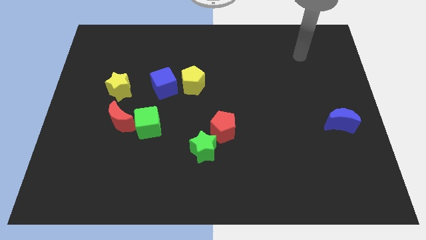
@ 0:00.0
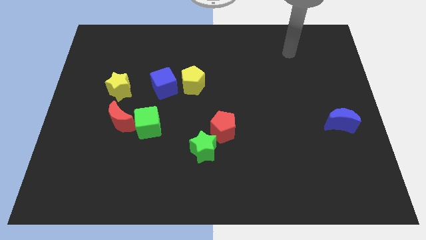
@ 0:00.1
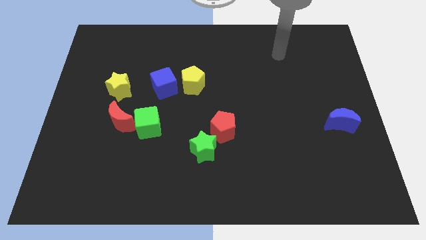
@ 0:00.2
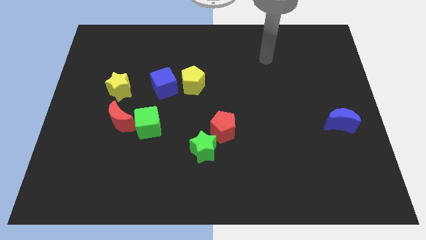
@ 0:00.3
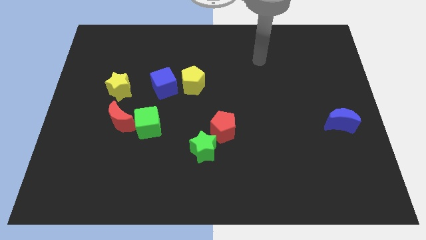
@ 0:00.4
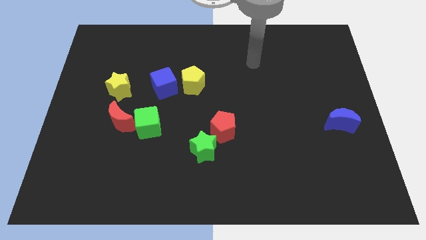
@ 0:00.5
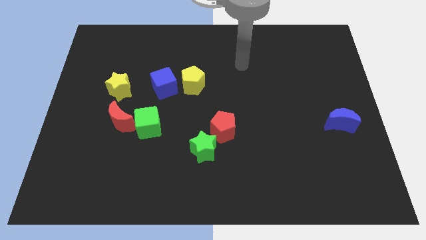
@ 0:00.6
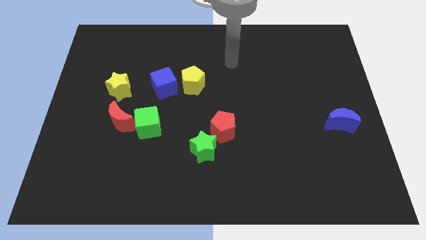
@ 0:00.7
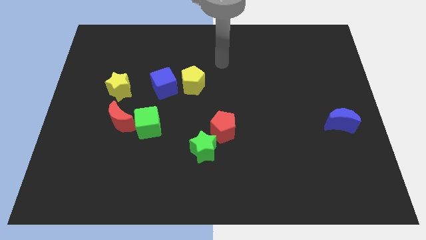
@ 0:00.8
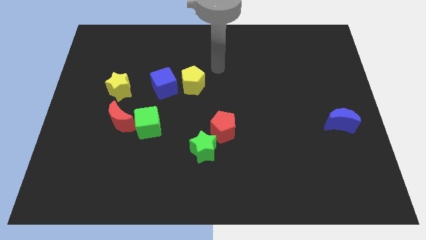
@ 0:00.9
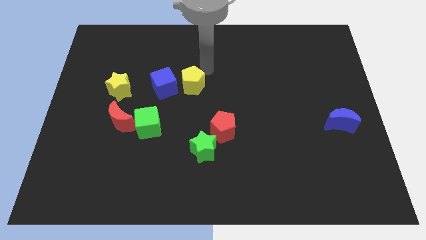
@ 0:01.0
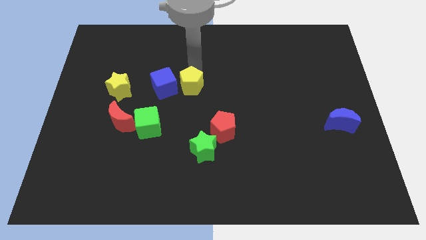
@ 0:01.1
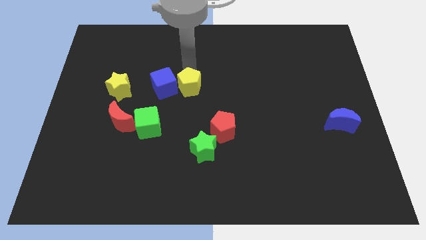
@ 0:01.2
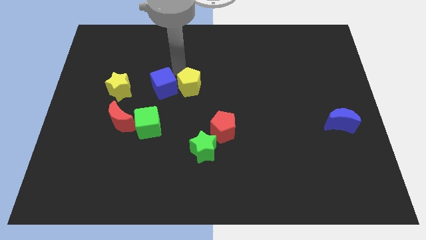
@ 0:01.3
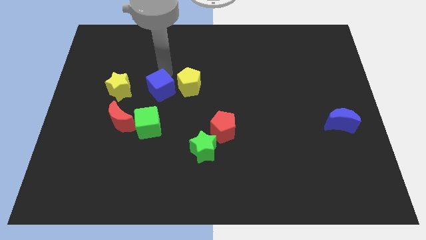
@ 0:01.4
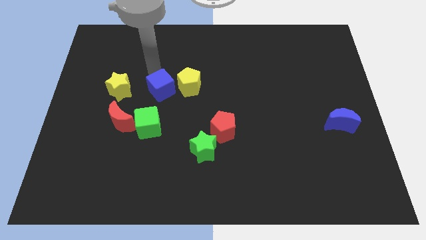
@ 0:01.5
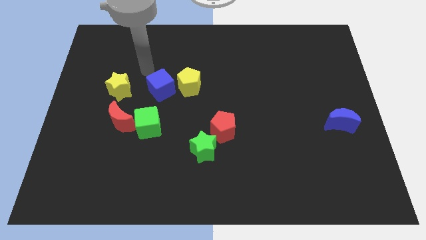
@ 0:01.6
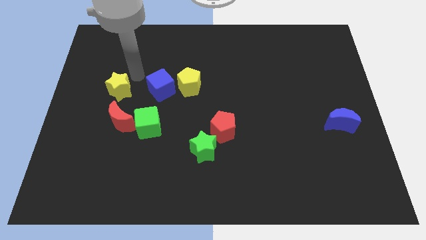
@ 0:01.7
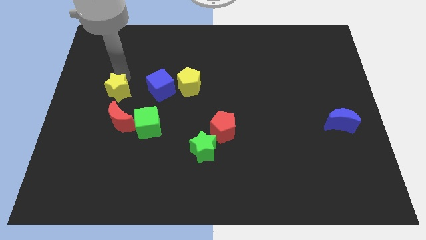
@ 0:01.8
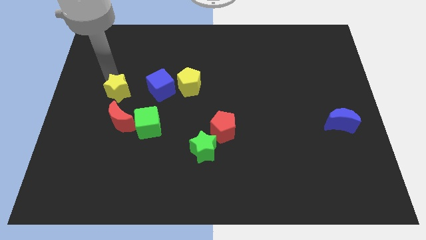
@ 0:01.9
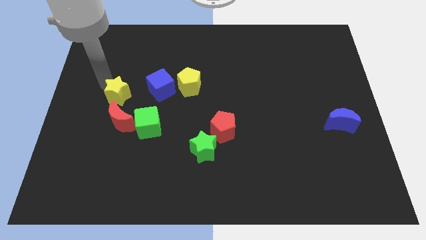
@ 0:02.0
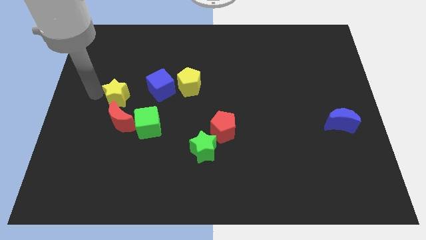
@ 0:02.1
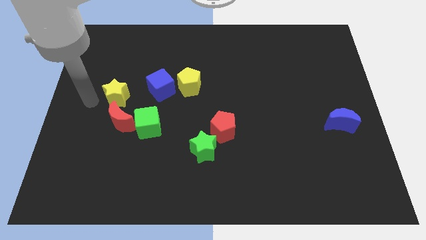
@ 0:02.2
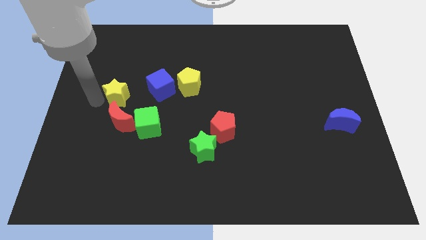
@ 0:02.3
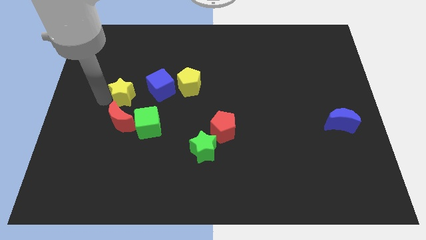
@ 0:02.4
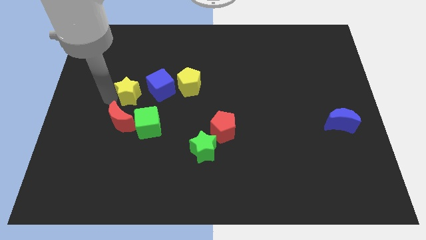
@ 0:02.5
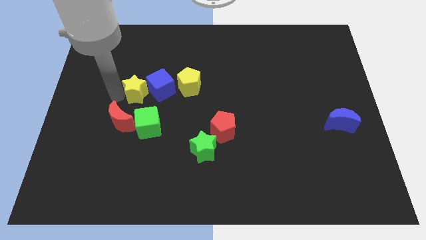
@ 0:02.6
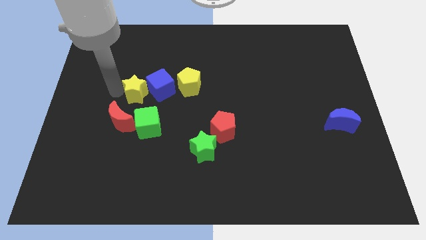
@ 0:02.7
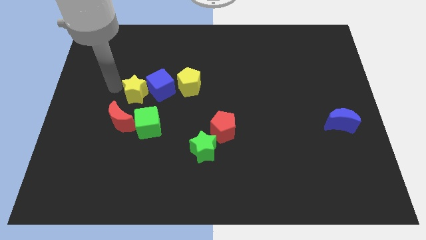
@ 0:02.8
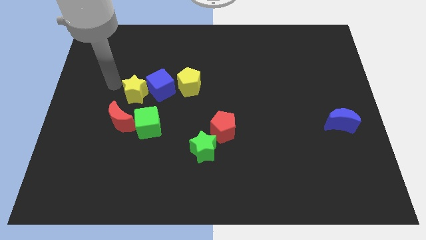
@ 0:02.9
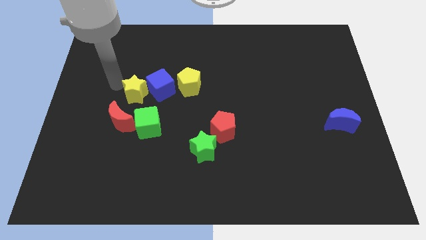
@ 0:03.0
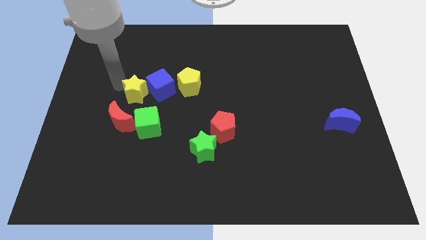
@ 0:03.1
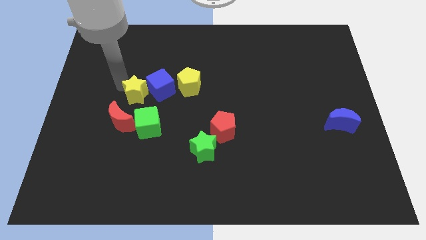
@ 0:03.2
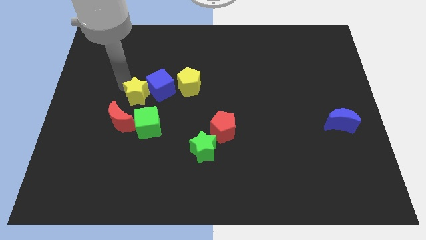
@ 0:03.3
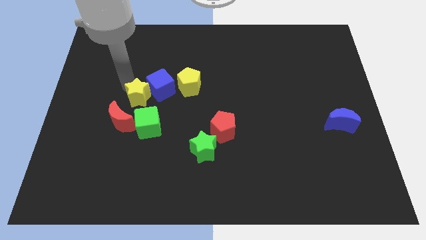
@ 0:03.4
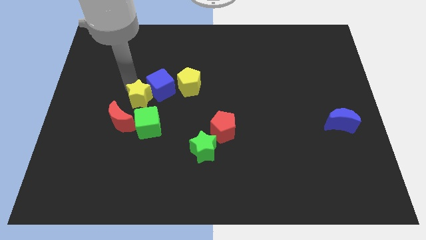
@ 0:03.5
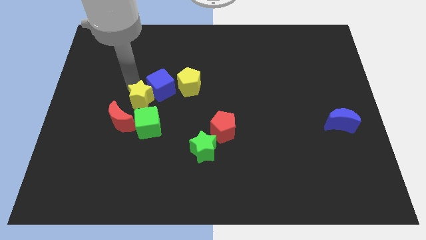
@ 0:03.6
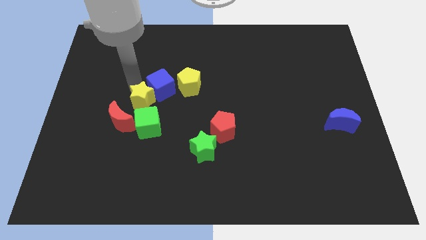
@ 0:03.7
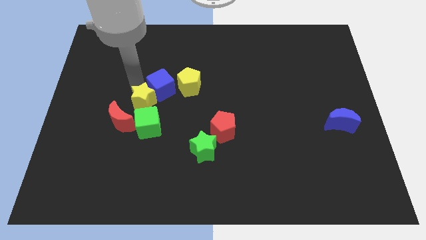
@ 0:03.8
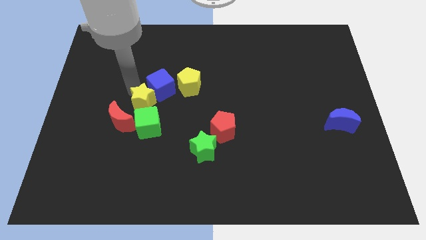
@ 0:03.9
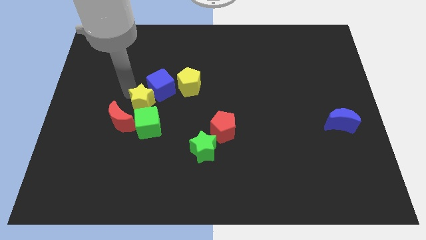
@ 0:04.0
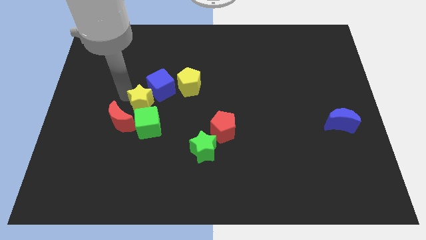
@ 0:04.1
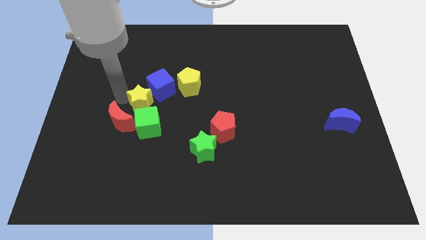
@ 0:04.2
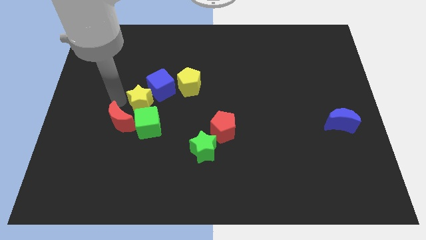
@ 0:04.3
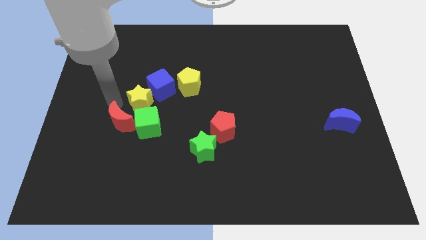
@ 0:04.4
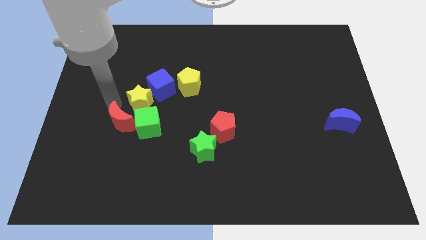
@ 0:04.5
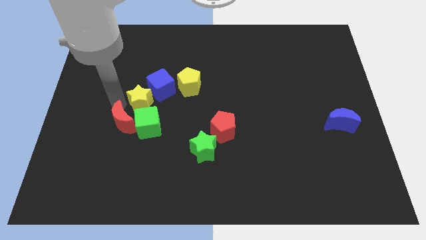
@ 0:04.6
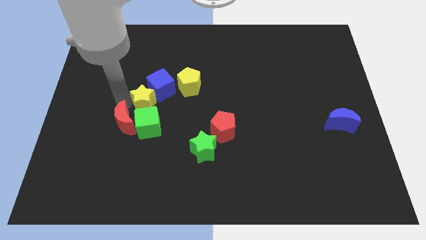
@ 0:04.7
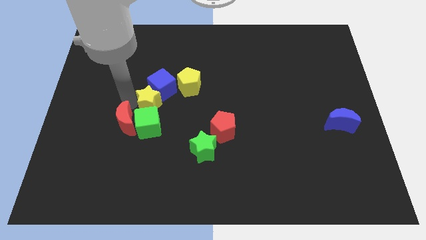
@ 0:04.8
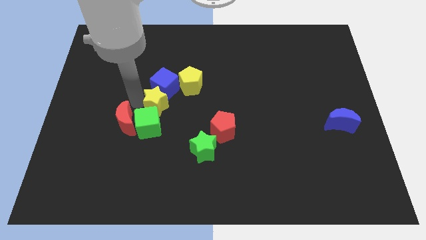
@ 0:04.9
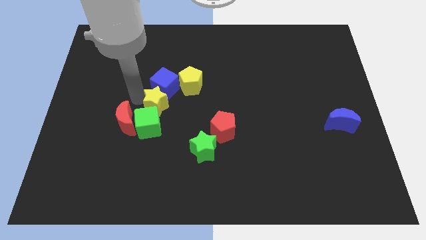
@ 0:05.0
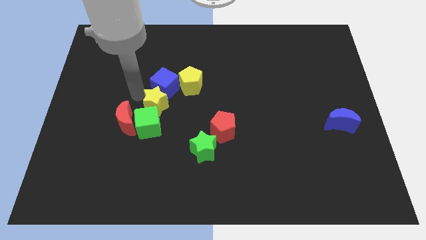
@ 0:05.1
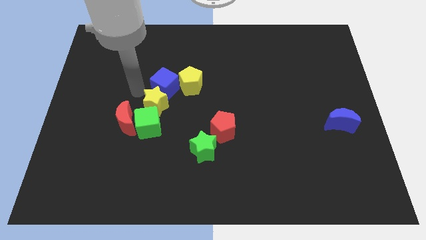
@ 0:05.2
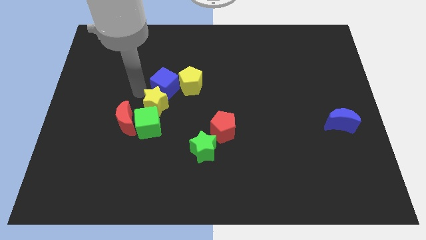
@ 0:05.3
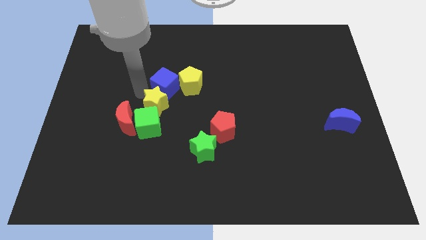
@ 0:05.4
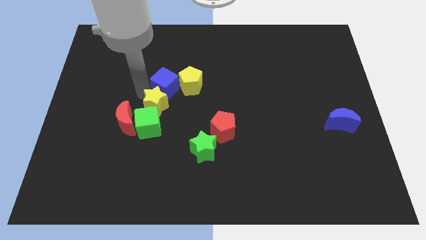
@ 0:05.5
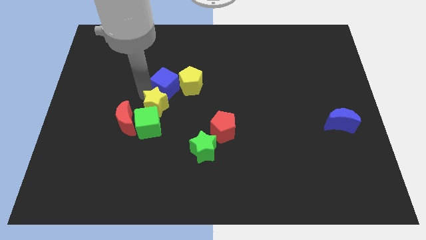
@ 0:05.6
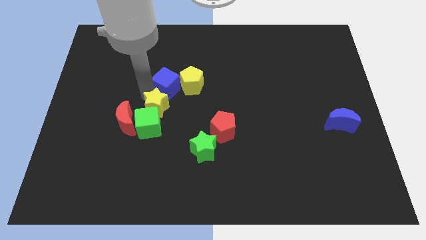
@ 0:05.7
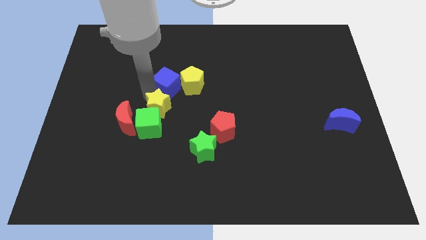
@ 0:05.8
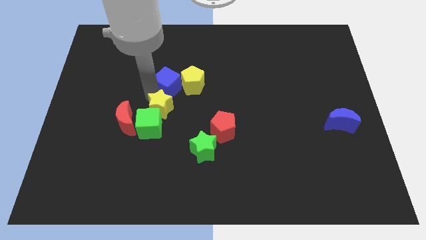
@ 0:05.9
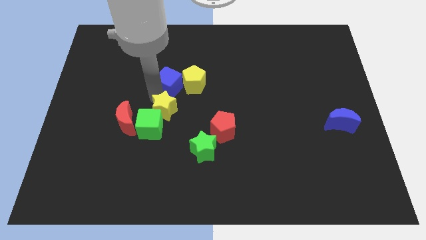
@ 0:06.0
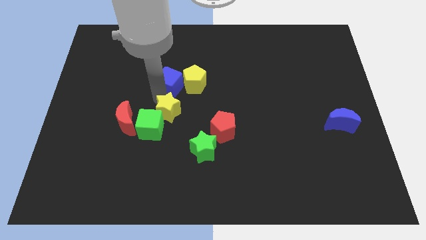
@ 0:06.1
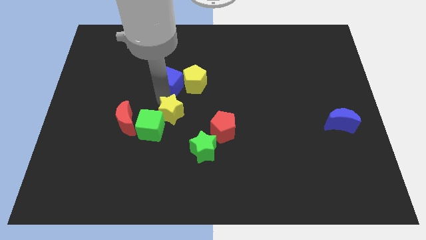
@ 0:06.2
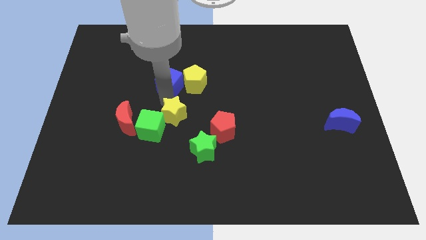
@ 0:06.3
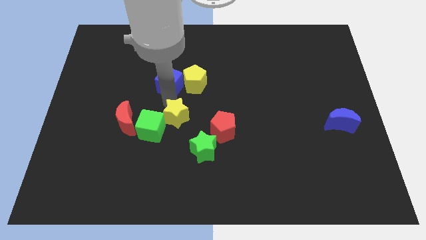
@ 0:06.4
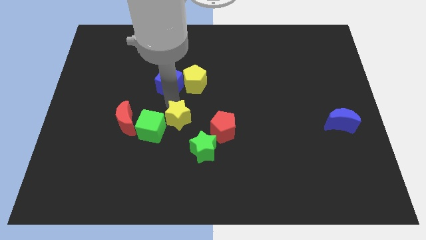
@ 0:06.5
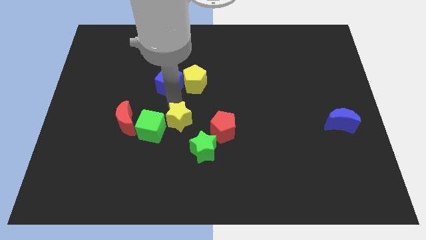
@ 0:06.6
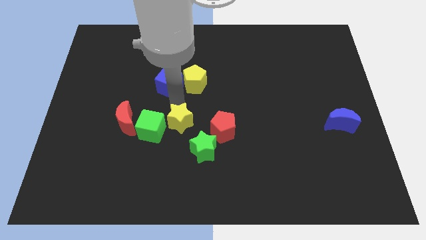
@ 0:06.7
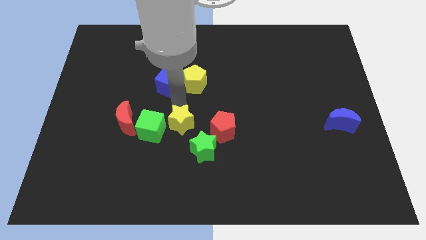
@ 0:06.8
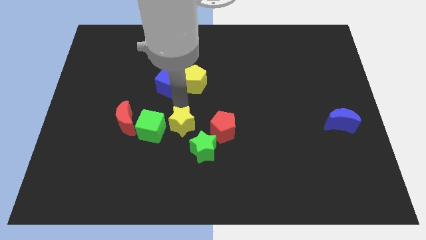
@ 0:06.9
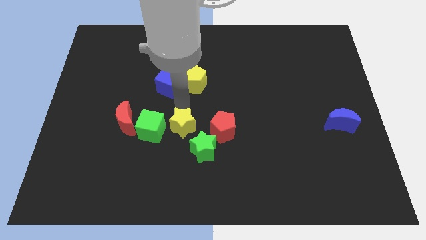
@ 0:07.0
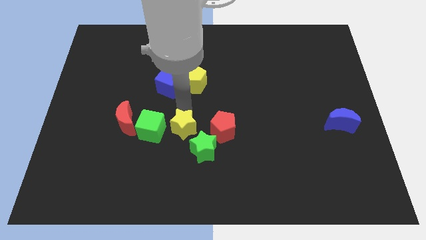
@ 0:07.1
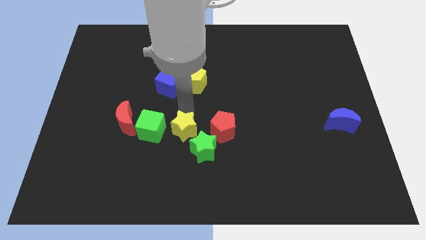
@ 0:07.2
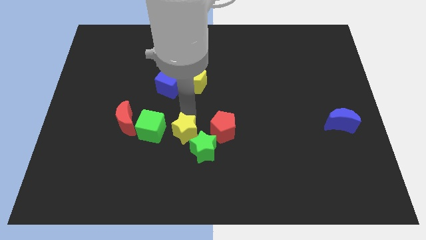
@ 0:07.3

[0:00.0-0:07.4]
slide the yellow star close to the green star

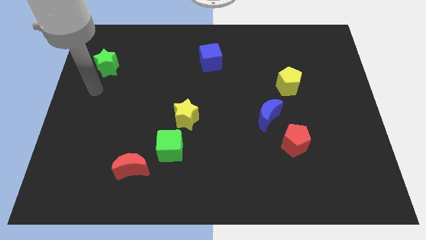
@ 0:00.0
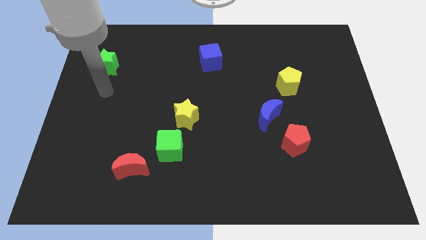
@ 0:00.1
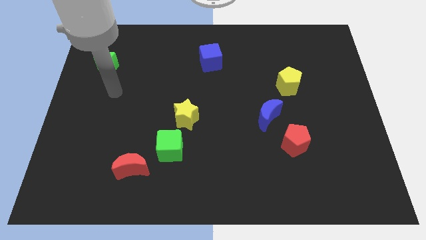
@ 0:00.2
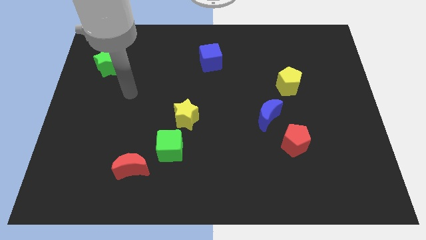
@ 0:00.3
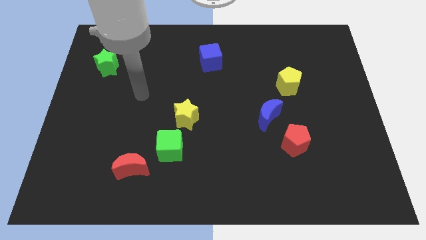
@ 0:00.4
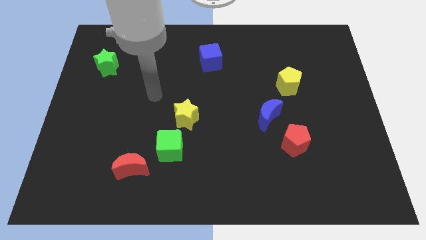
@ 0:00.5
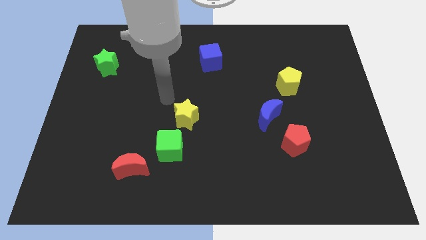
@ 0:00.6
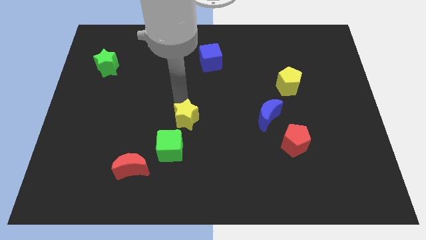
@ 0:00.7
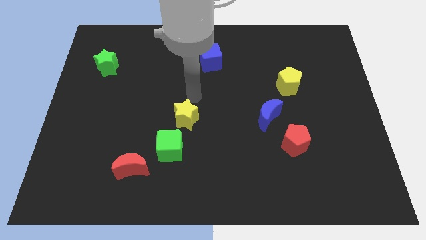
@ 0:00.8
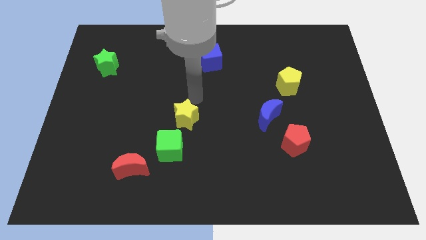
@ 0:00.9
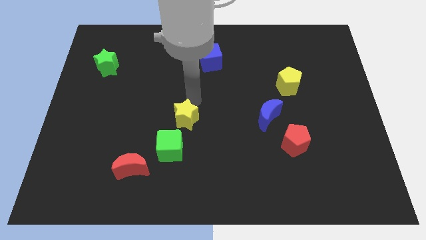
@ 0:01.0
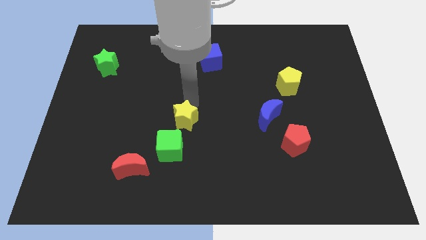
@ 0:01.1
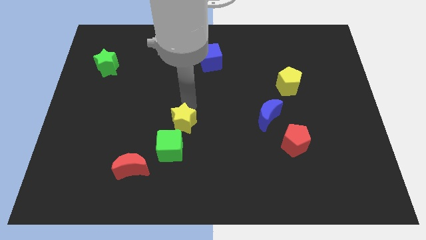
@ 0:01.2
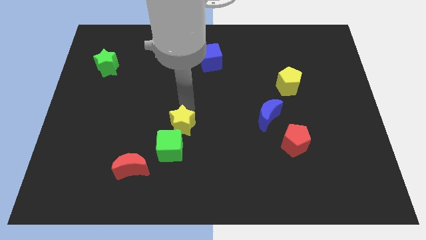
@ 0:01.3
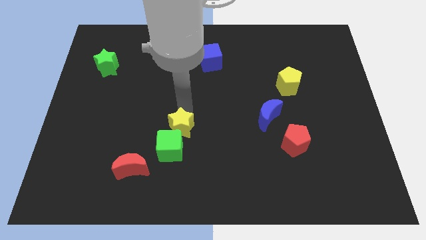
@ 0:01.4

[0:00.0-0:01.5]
slide the yellow star towards the green cube
